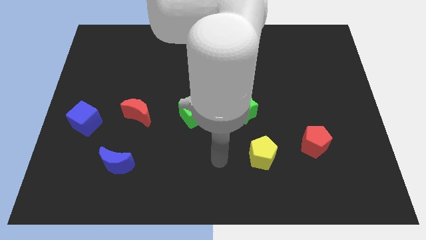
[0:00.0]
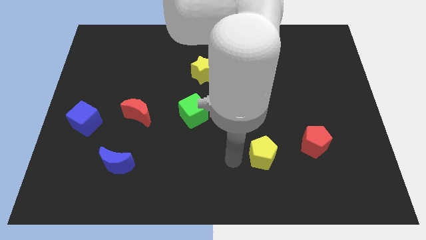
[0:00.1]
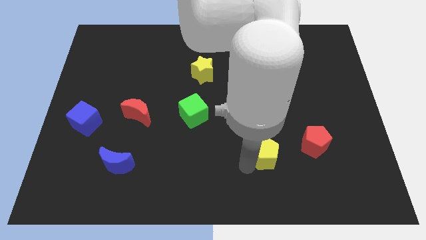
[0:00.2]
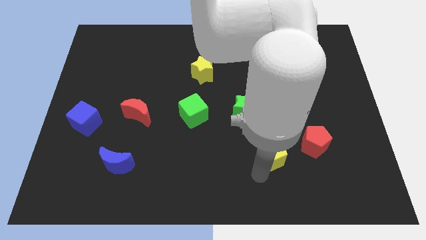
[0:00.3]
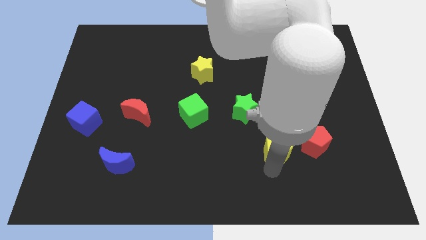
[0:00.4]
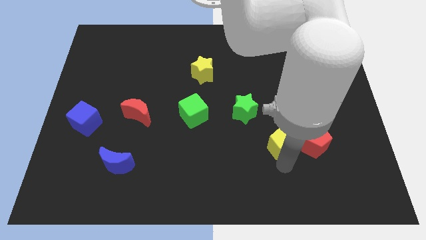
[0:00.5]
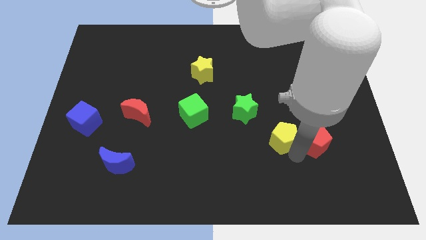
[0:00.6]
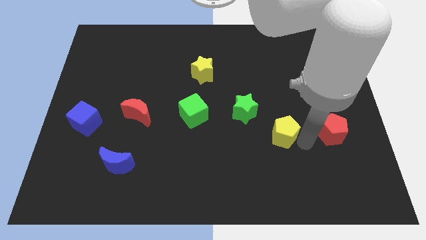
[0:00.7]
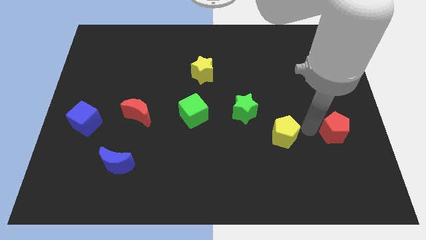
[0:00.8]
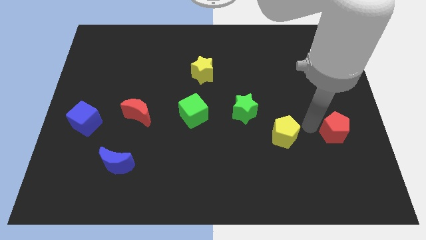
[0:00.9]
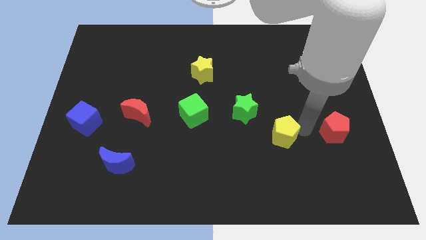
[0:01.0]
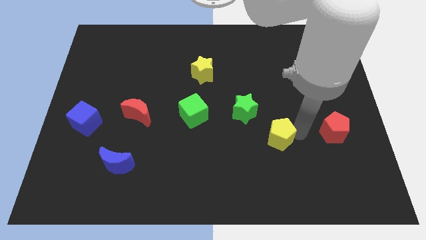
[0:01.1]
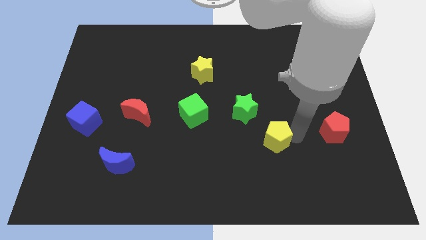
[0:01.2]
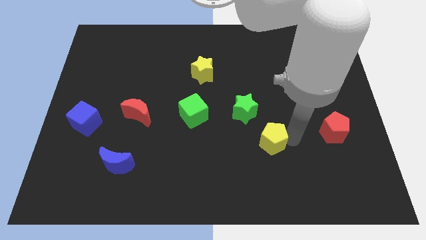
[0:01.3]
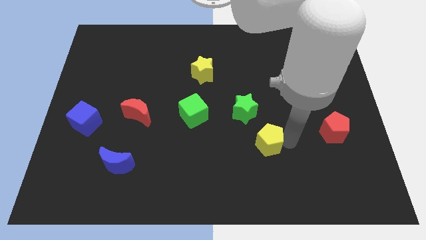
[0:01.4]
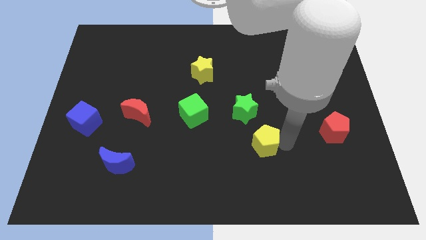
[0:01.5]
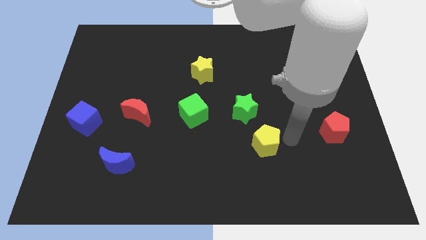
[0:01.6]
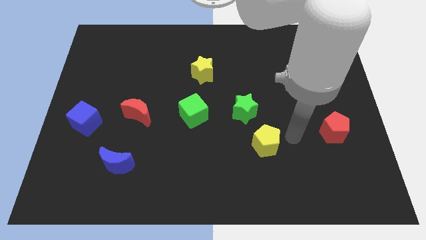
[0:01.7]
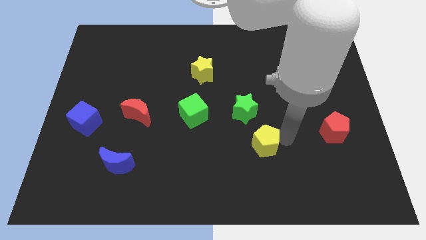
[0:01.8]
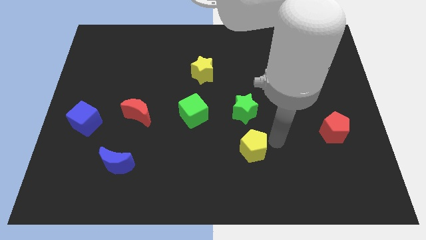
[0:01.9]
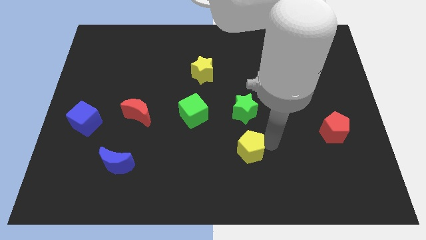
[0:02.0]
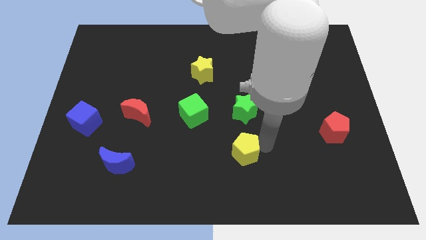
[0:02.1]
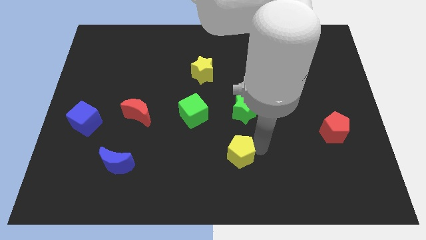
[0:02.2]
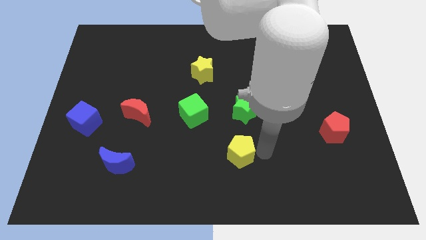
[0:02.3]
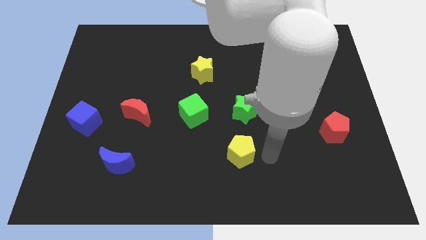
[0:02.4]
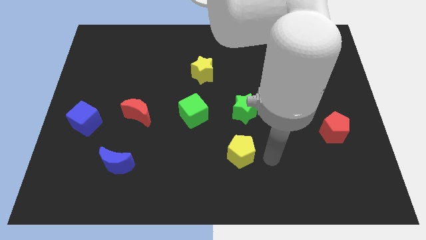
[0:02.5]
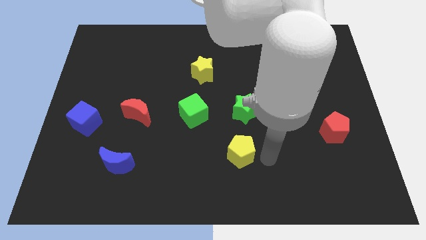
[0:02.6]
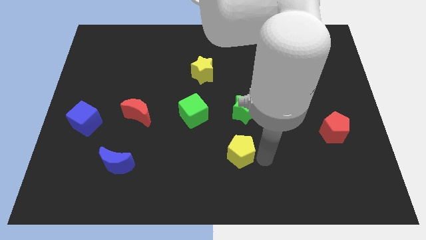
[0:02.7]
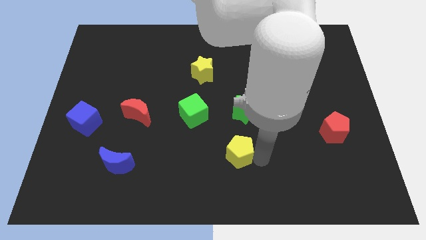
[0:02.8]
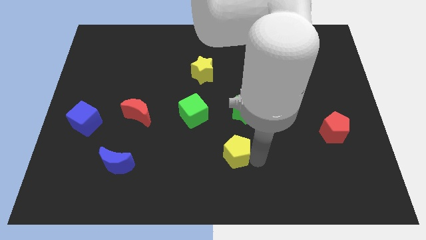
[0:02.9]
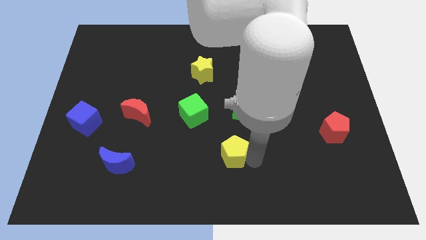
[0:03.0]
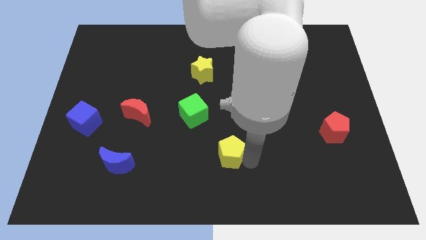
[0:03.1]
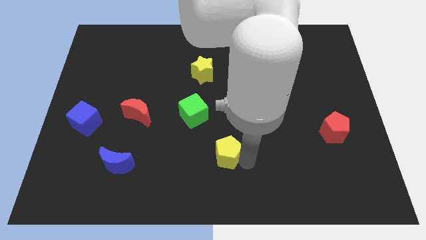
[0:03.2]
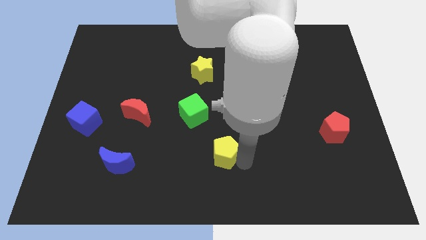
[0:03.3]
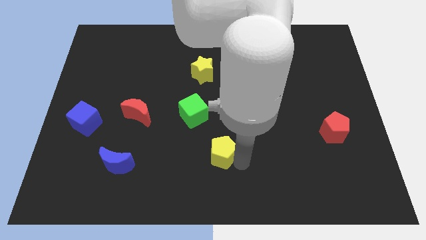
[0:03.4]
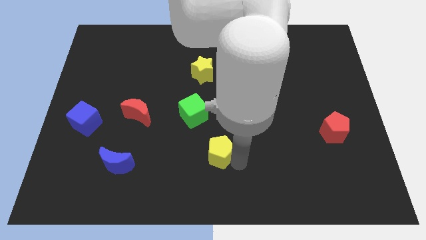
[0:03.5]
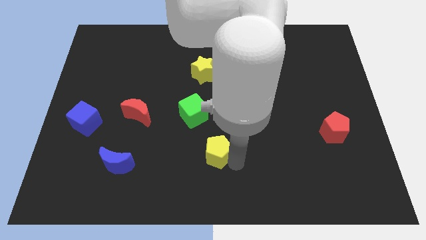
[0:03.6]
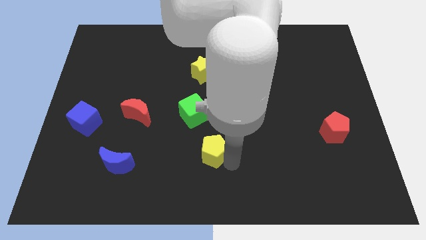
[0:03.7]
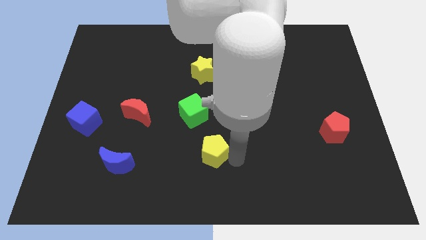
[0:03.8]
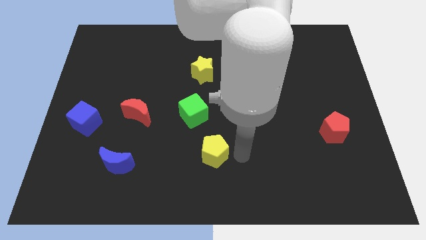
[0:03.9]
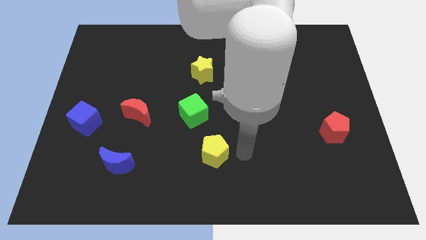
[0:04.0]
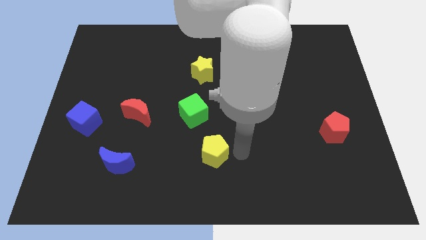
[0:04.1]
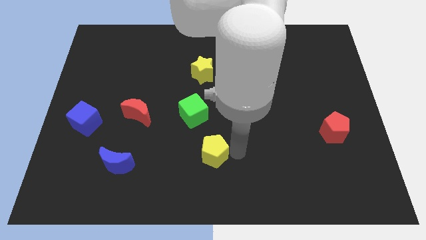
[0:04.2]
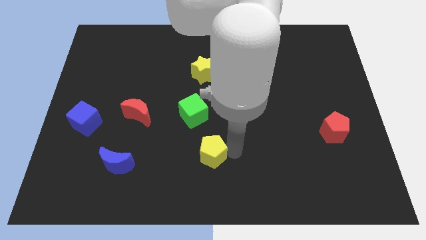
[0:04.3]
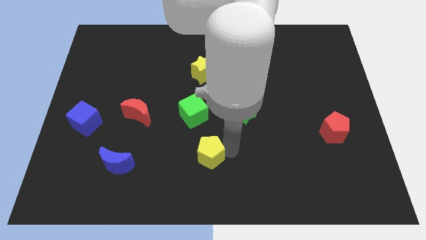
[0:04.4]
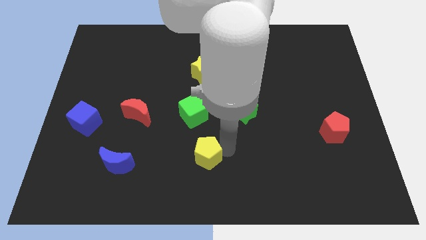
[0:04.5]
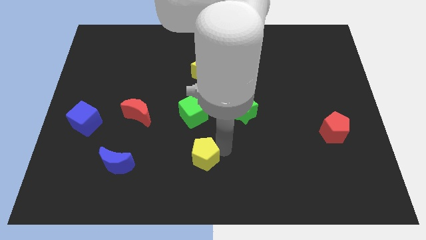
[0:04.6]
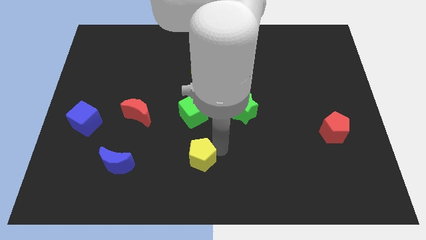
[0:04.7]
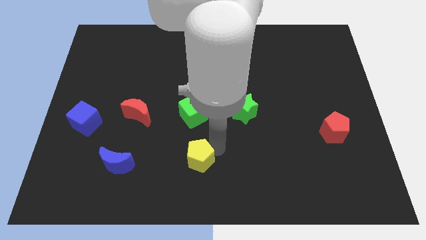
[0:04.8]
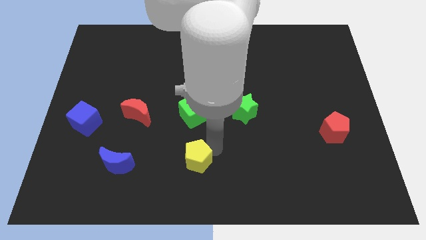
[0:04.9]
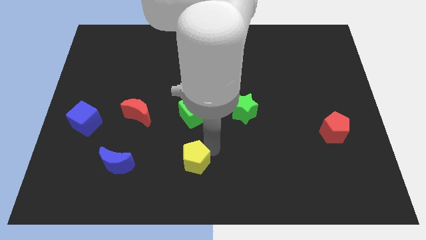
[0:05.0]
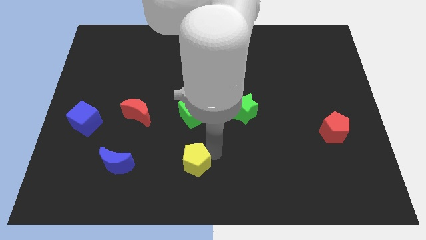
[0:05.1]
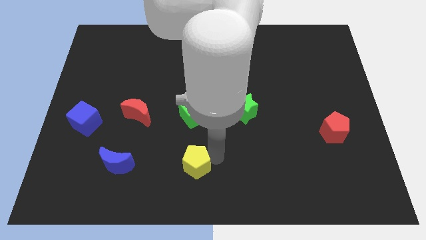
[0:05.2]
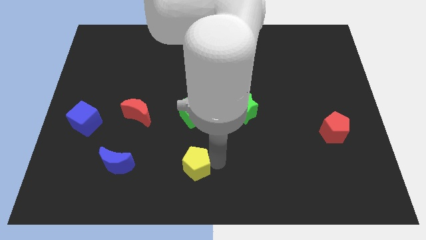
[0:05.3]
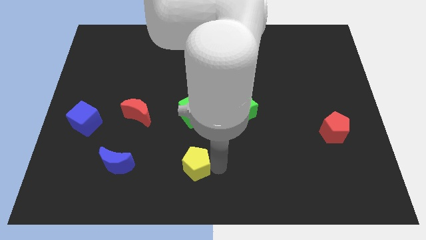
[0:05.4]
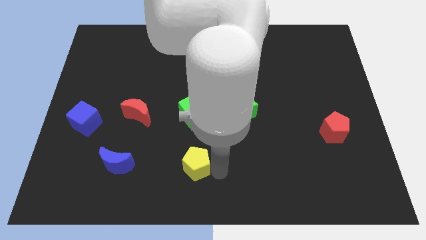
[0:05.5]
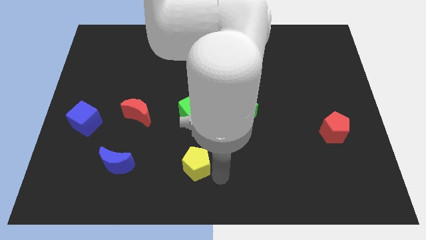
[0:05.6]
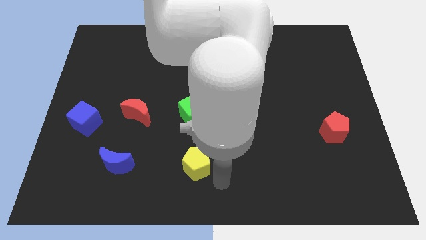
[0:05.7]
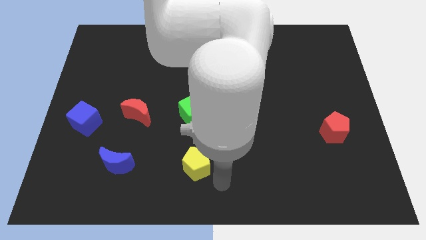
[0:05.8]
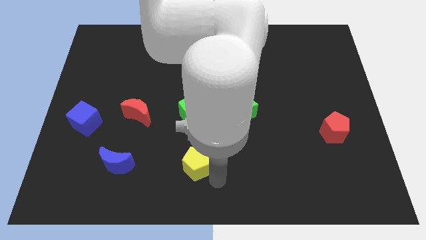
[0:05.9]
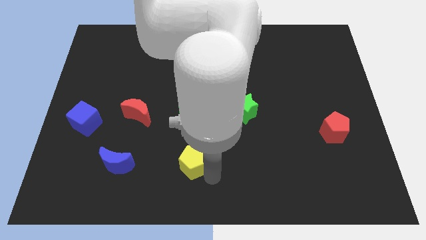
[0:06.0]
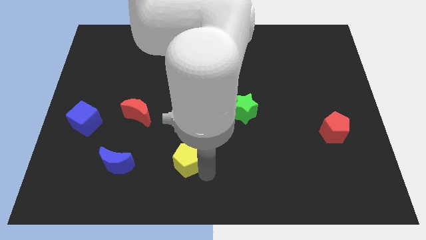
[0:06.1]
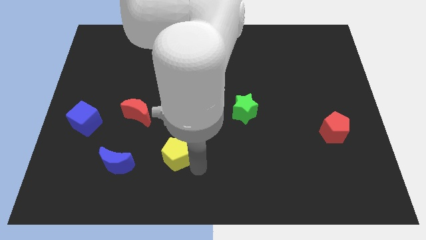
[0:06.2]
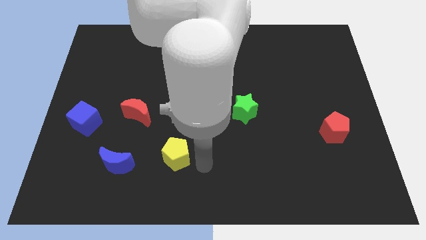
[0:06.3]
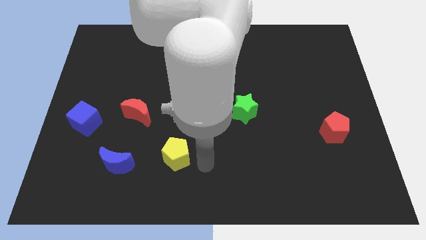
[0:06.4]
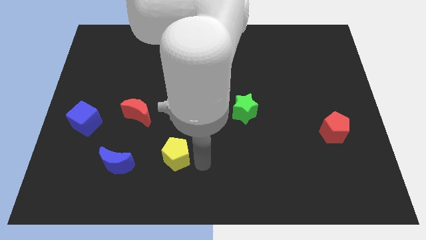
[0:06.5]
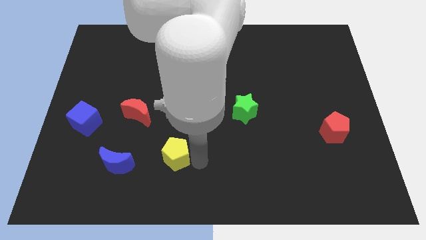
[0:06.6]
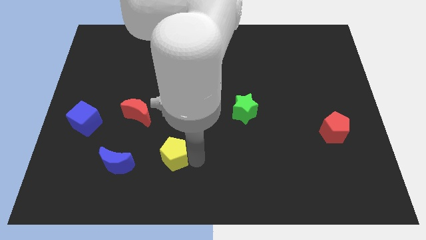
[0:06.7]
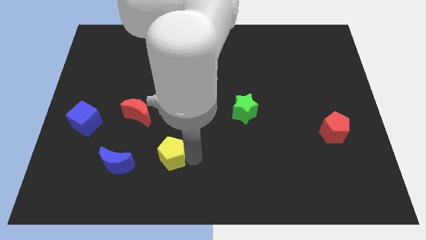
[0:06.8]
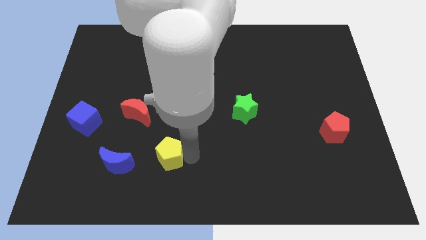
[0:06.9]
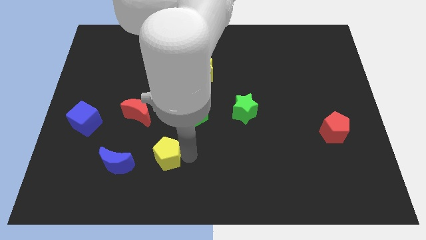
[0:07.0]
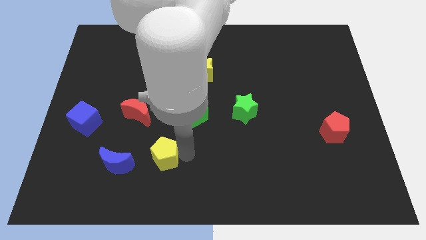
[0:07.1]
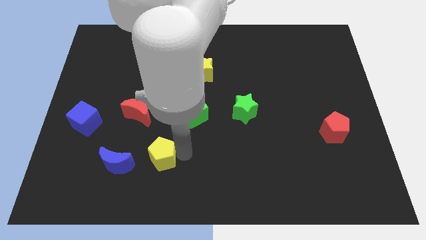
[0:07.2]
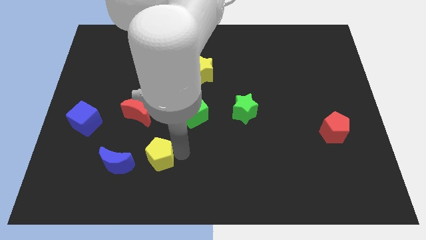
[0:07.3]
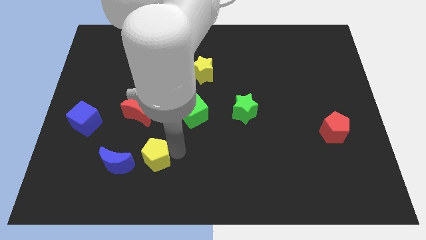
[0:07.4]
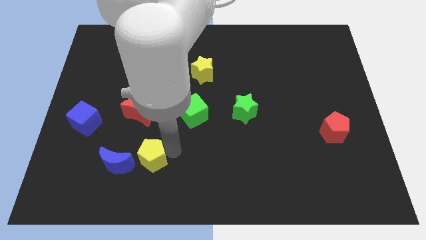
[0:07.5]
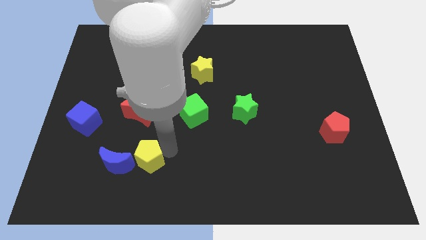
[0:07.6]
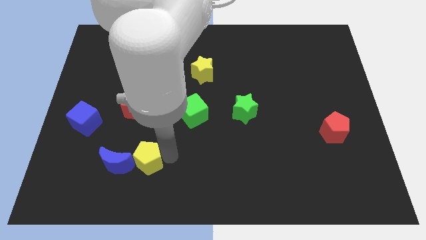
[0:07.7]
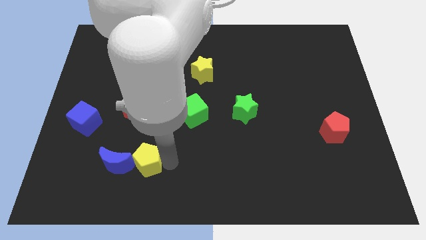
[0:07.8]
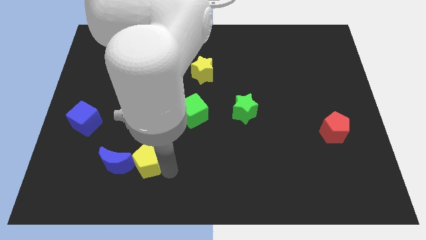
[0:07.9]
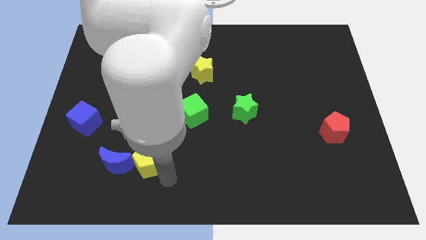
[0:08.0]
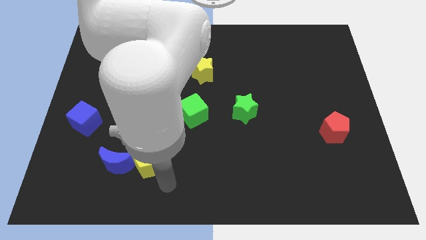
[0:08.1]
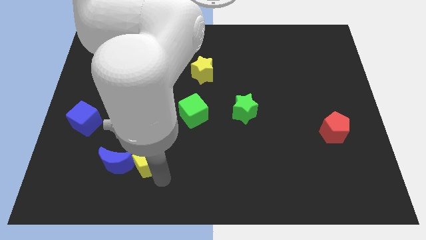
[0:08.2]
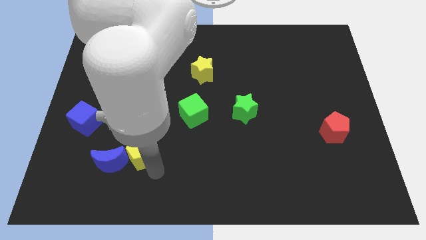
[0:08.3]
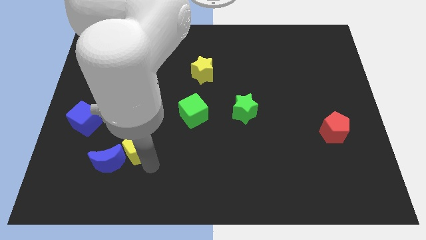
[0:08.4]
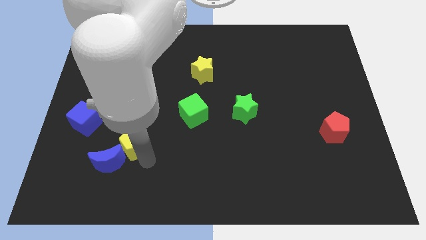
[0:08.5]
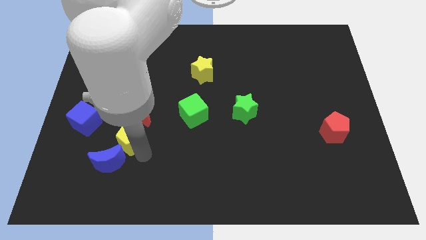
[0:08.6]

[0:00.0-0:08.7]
slide the yellow pentagon to the bottom left of the red moon
